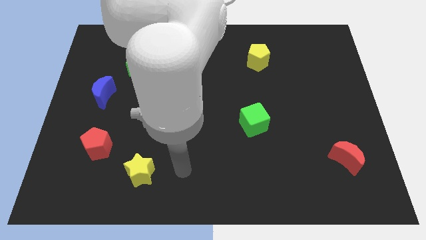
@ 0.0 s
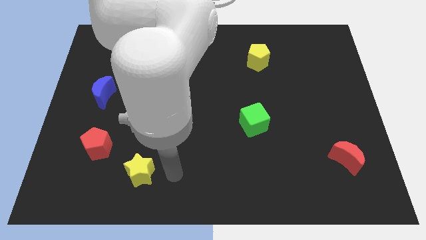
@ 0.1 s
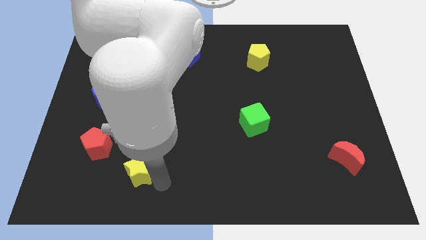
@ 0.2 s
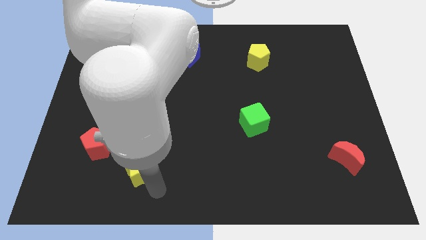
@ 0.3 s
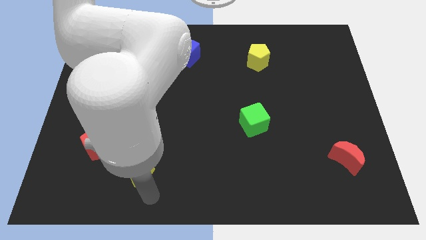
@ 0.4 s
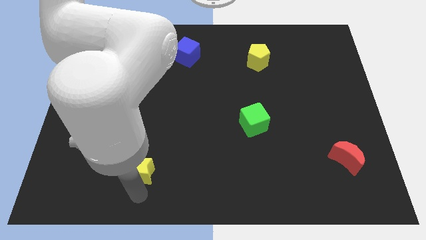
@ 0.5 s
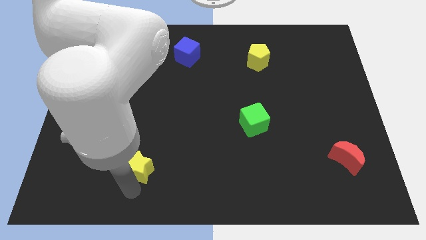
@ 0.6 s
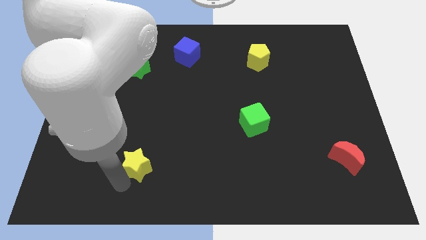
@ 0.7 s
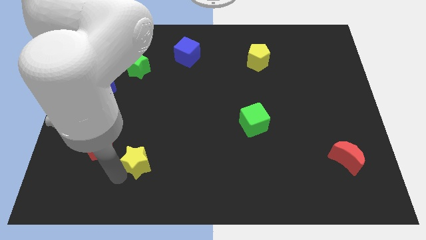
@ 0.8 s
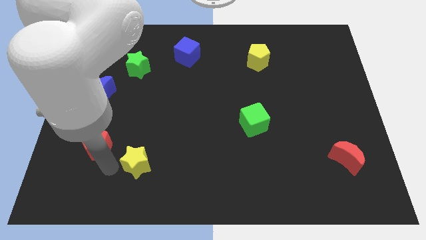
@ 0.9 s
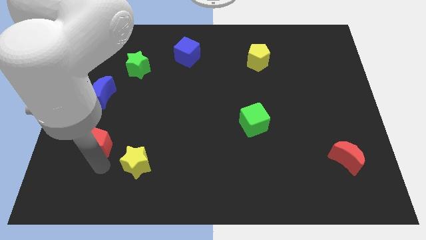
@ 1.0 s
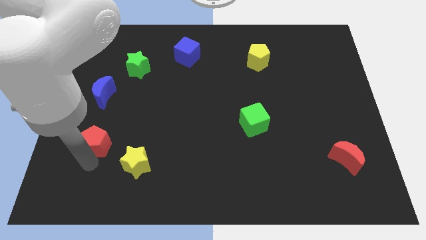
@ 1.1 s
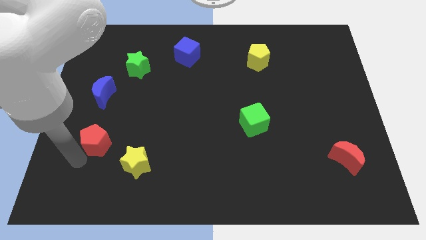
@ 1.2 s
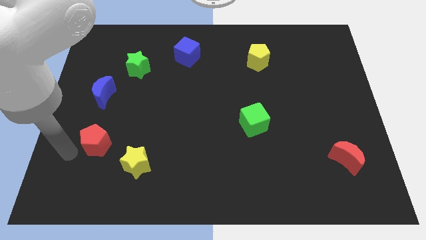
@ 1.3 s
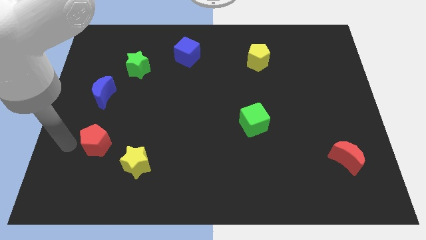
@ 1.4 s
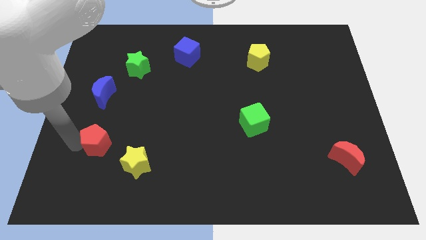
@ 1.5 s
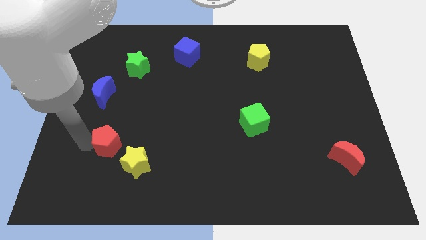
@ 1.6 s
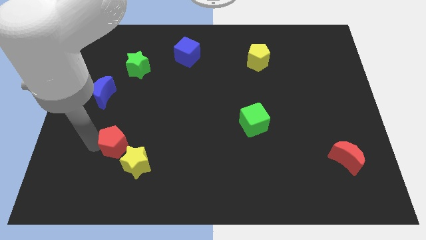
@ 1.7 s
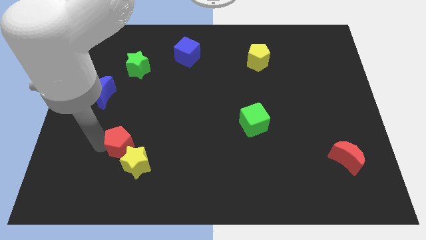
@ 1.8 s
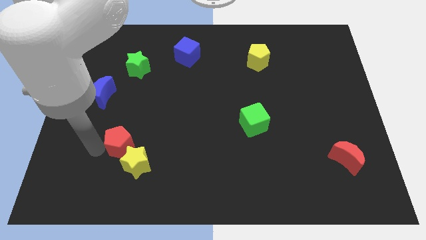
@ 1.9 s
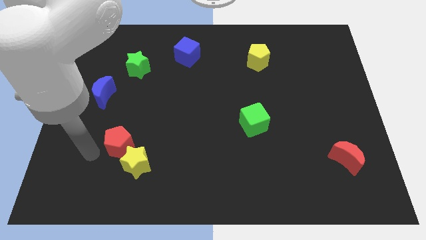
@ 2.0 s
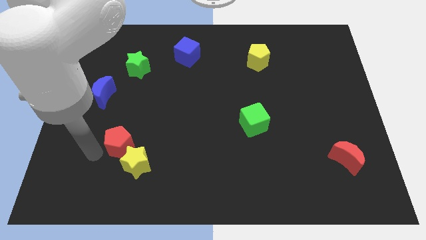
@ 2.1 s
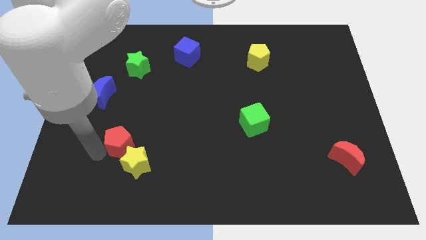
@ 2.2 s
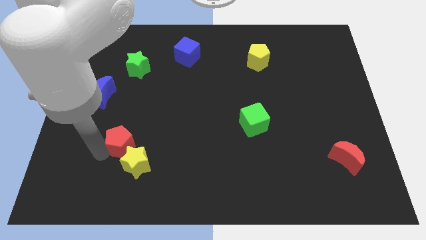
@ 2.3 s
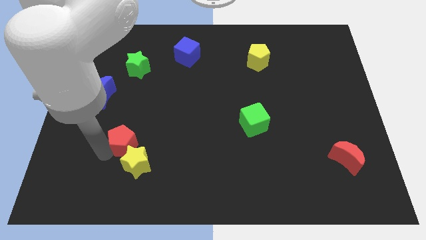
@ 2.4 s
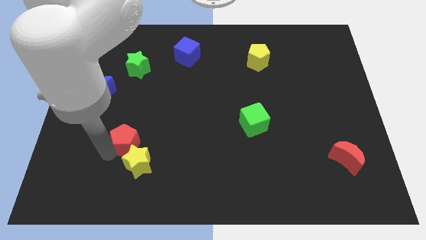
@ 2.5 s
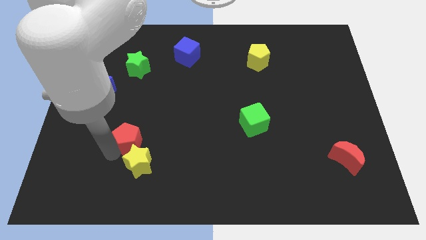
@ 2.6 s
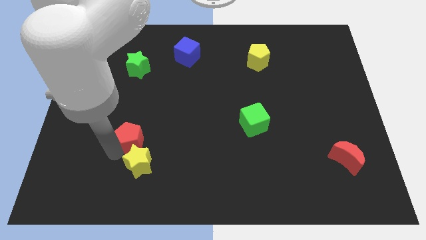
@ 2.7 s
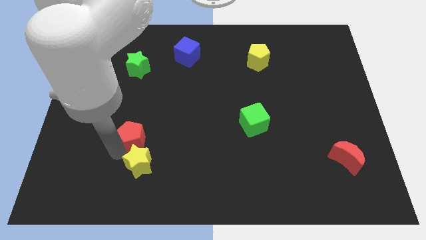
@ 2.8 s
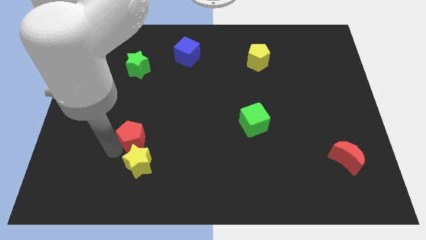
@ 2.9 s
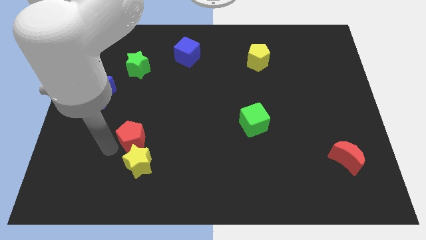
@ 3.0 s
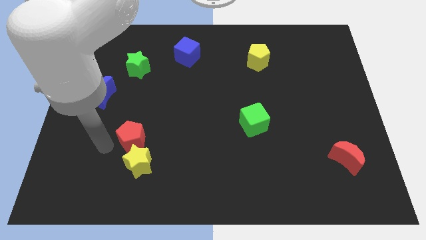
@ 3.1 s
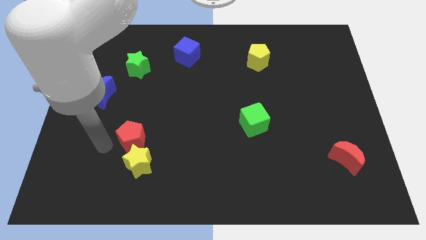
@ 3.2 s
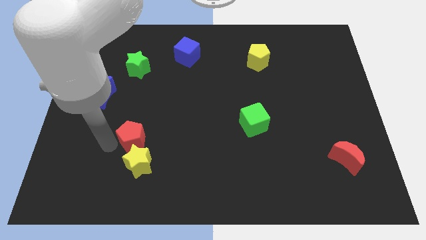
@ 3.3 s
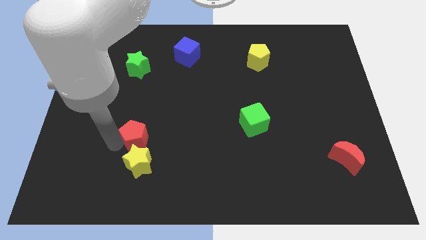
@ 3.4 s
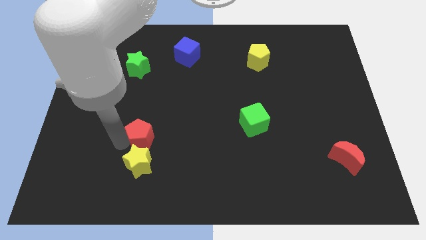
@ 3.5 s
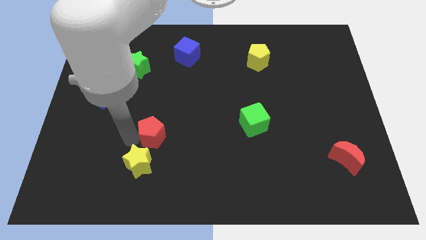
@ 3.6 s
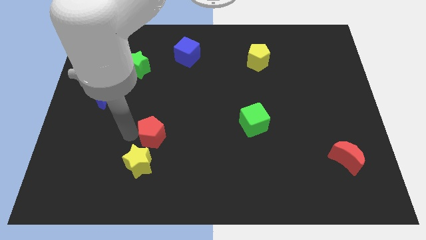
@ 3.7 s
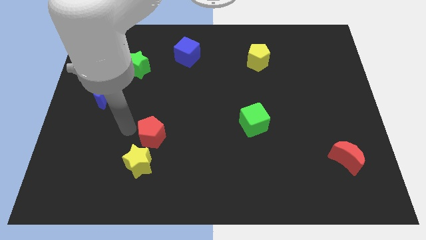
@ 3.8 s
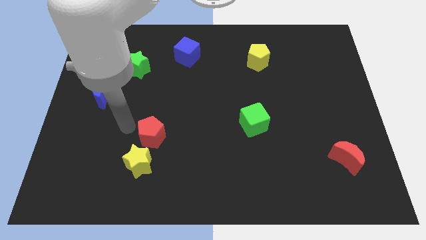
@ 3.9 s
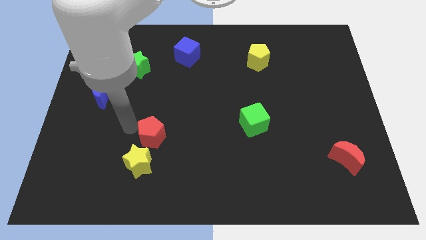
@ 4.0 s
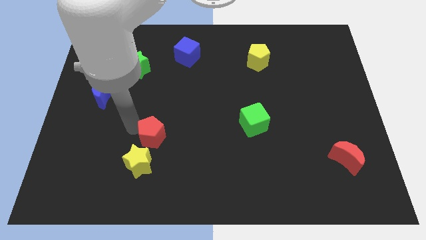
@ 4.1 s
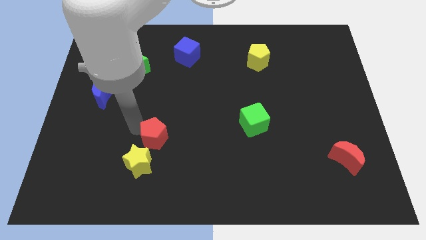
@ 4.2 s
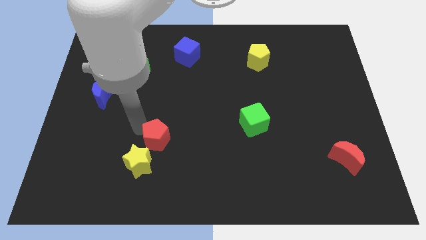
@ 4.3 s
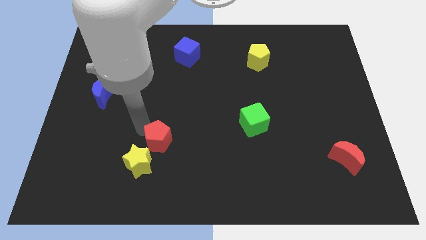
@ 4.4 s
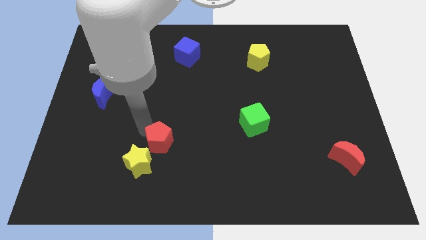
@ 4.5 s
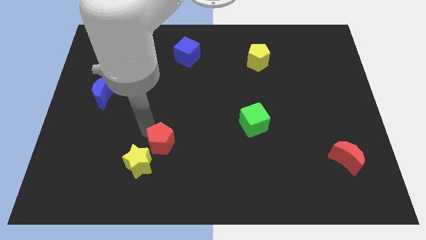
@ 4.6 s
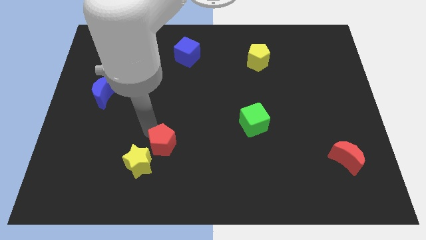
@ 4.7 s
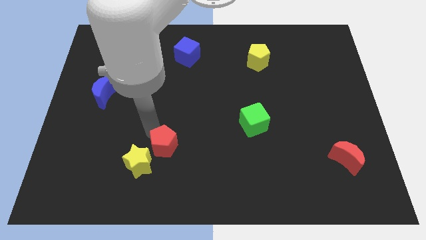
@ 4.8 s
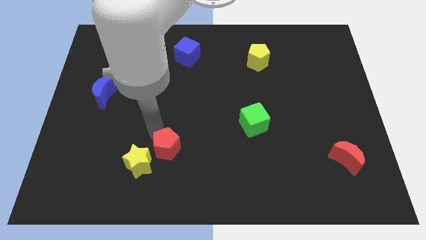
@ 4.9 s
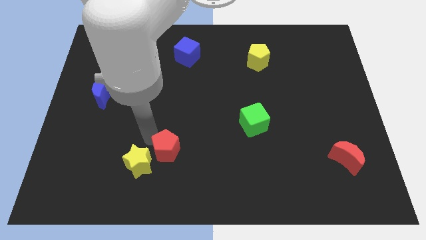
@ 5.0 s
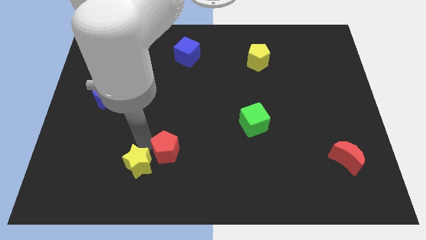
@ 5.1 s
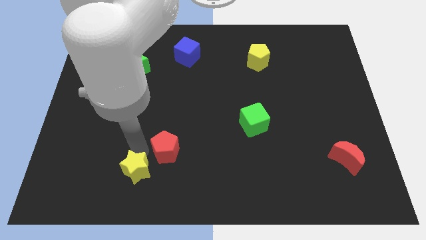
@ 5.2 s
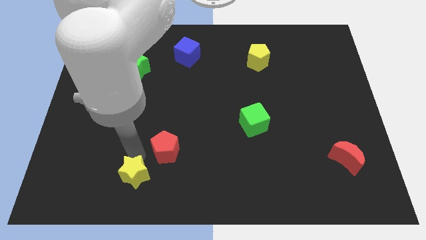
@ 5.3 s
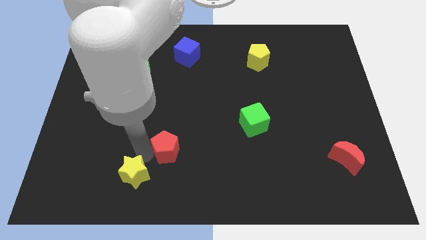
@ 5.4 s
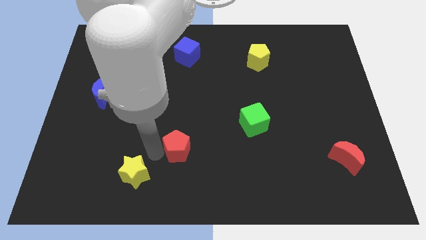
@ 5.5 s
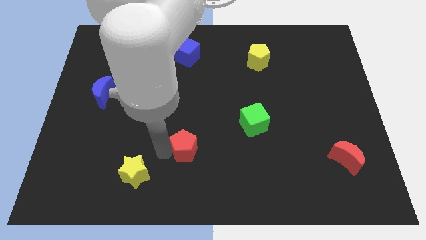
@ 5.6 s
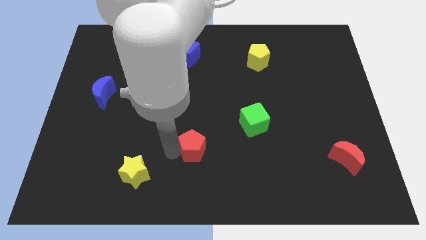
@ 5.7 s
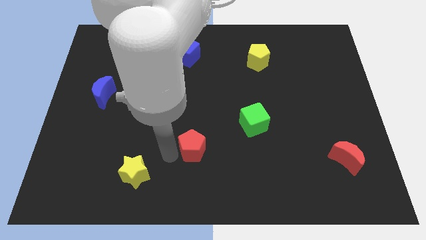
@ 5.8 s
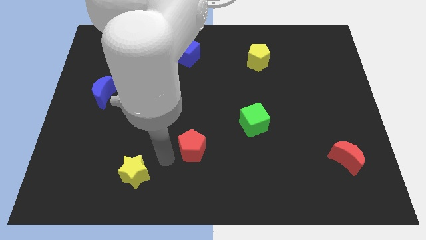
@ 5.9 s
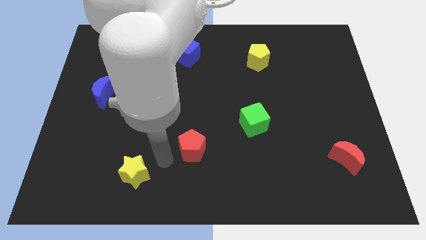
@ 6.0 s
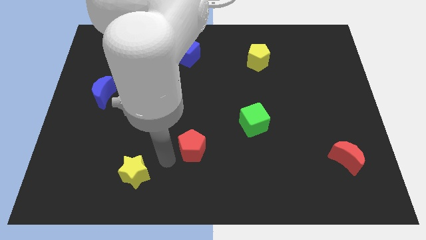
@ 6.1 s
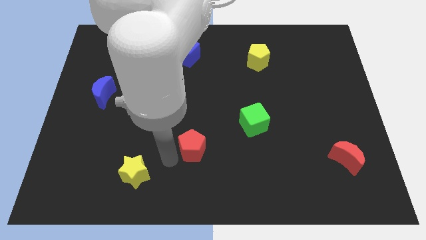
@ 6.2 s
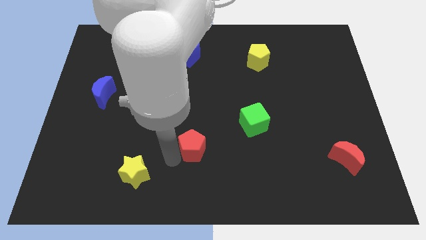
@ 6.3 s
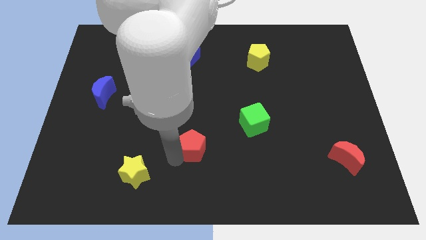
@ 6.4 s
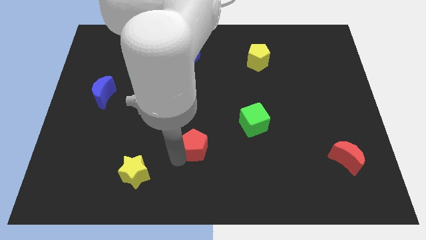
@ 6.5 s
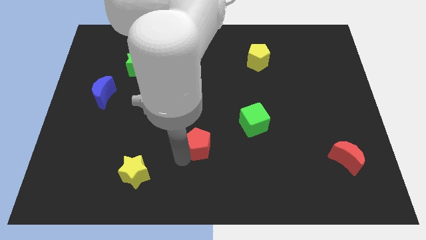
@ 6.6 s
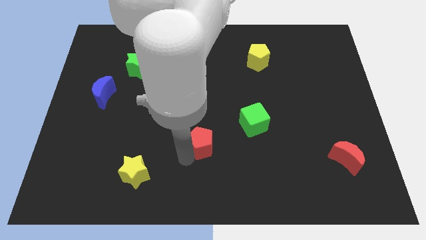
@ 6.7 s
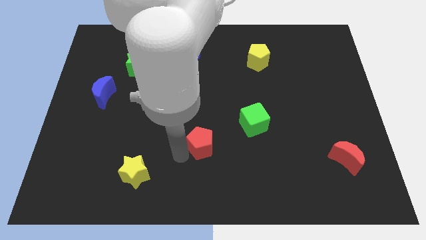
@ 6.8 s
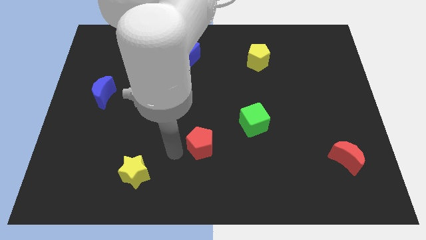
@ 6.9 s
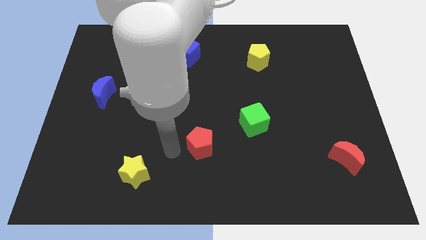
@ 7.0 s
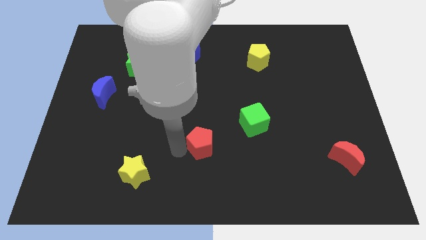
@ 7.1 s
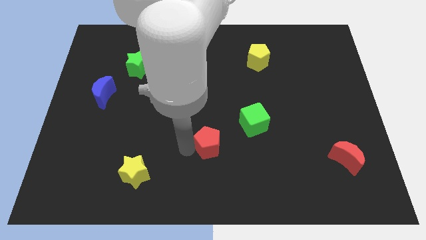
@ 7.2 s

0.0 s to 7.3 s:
put the red pentagon to the bottom left of the green cube
